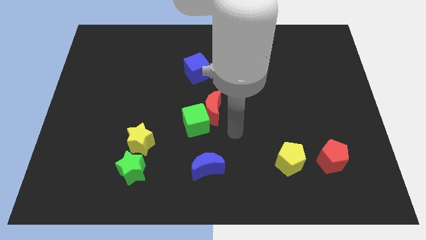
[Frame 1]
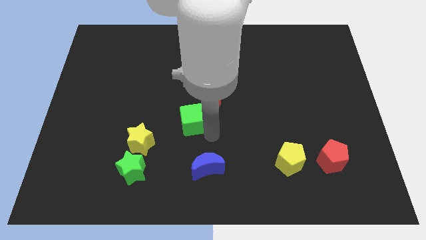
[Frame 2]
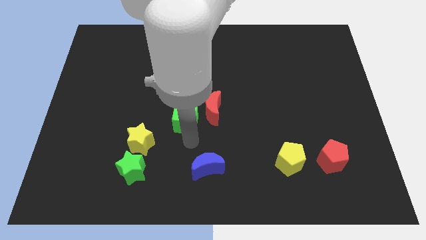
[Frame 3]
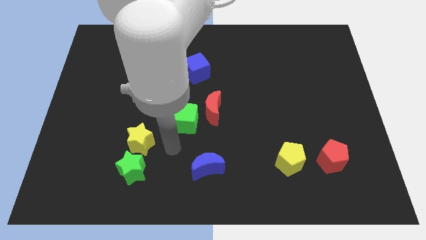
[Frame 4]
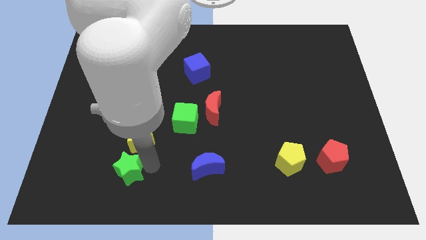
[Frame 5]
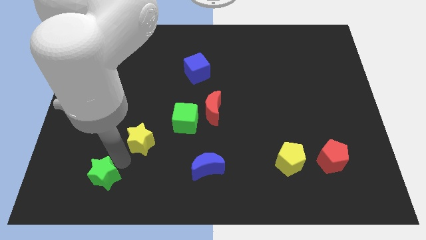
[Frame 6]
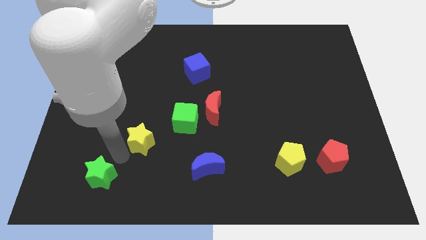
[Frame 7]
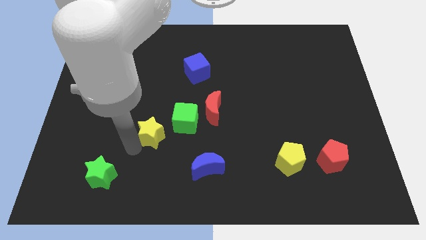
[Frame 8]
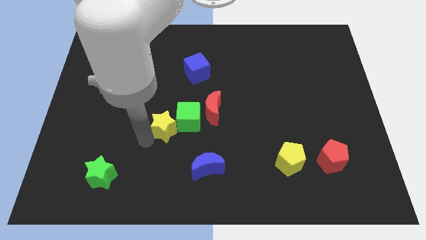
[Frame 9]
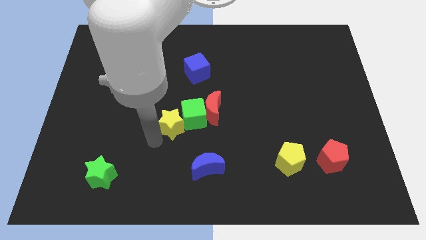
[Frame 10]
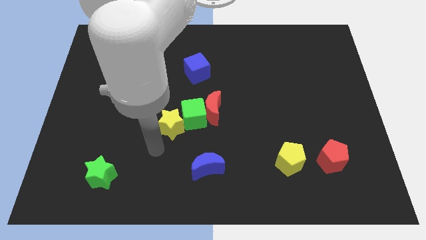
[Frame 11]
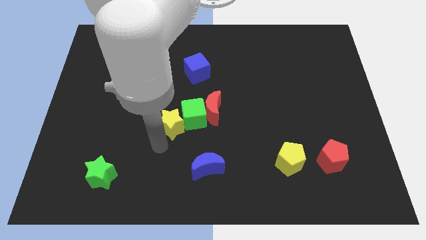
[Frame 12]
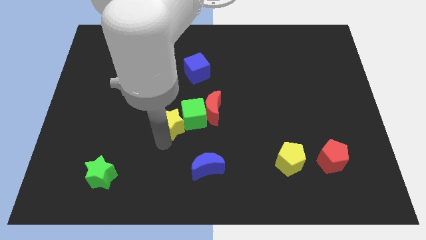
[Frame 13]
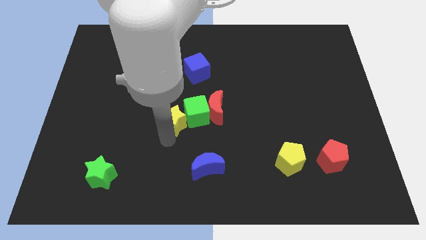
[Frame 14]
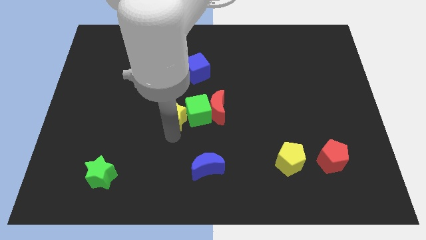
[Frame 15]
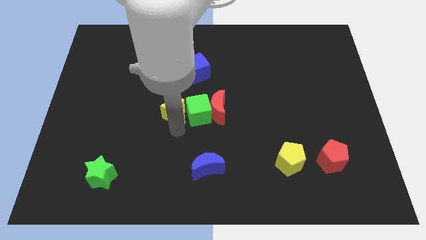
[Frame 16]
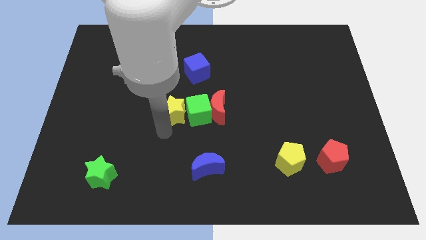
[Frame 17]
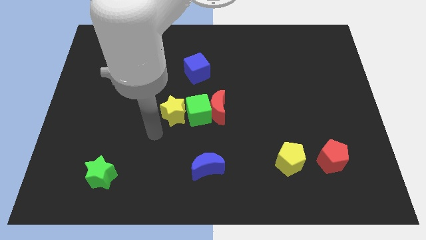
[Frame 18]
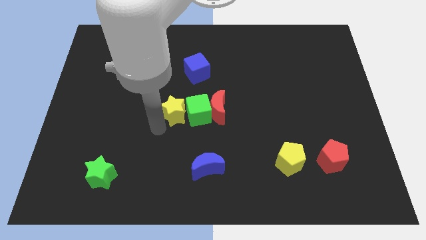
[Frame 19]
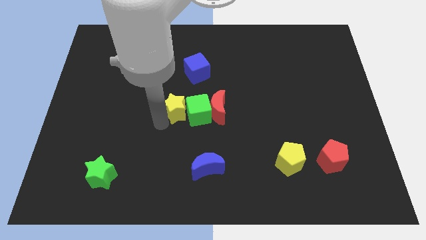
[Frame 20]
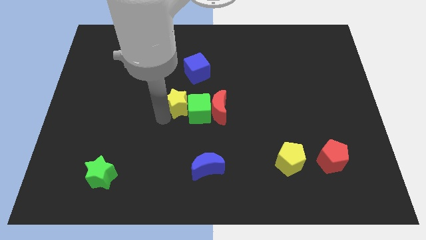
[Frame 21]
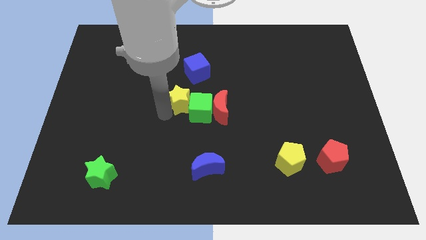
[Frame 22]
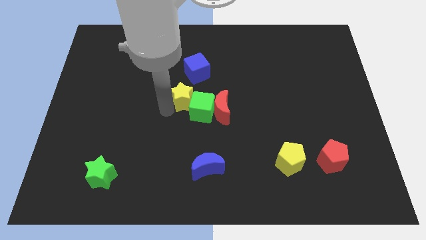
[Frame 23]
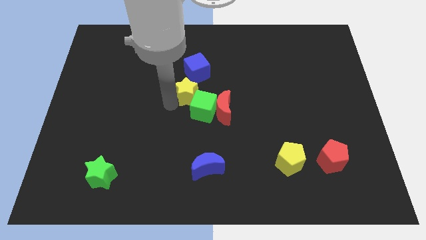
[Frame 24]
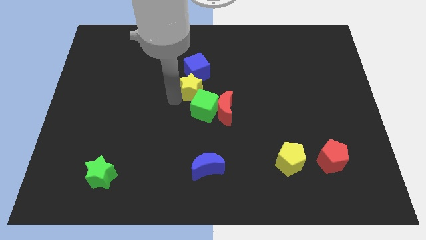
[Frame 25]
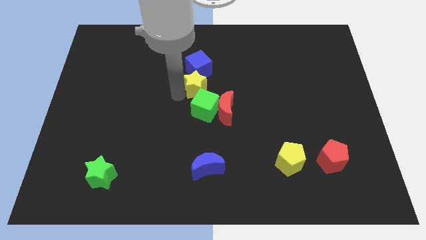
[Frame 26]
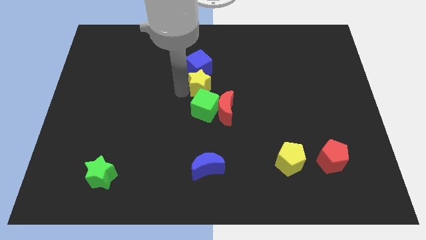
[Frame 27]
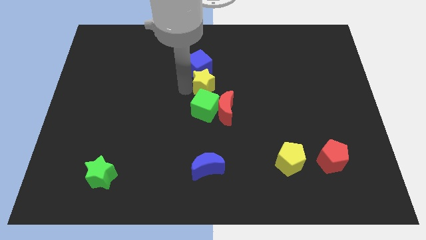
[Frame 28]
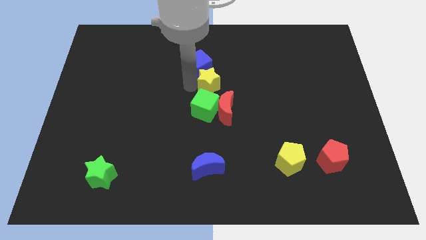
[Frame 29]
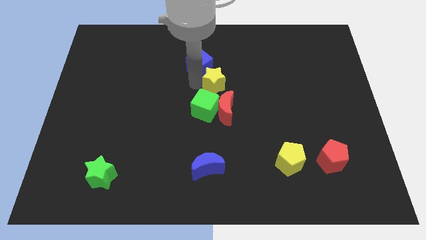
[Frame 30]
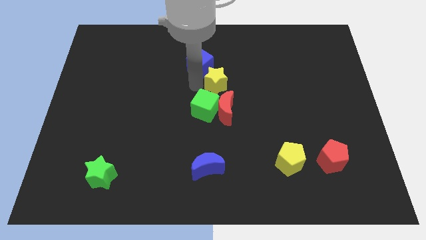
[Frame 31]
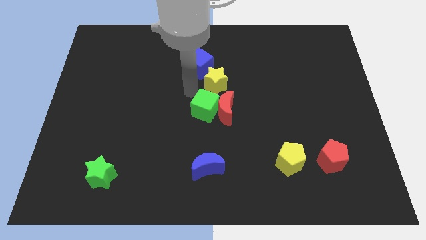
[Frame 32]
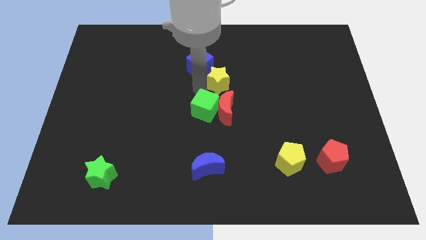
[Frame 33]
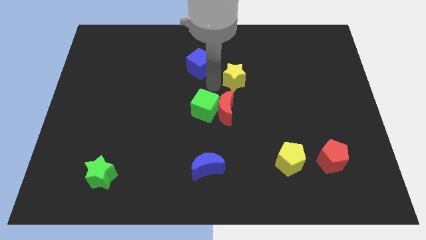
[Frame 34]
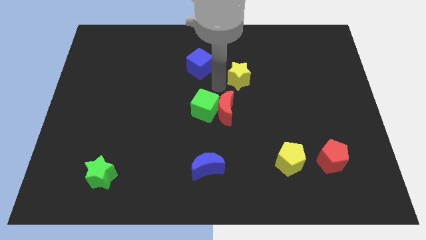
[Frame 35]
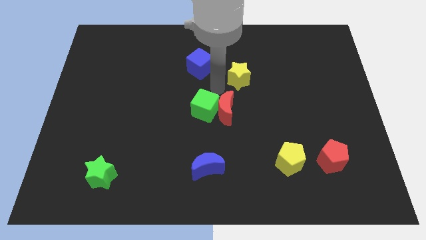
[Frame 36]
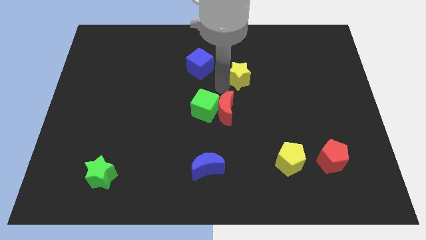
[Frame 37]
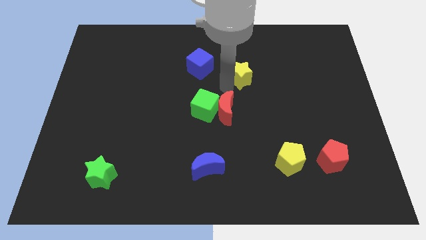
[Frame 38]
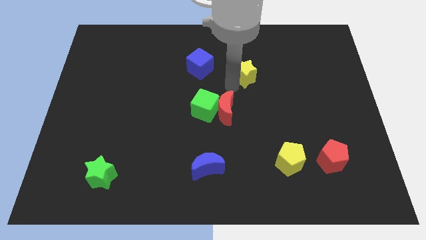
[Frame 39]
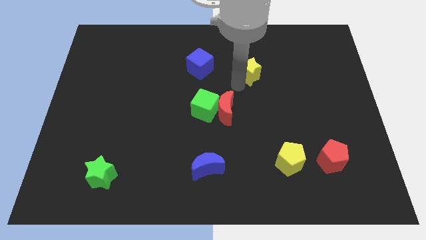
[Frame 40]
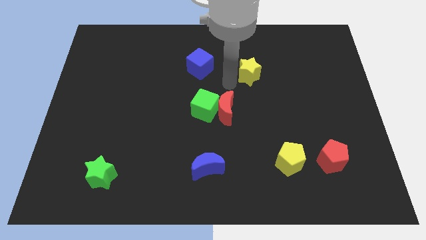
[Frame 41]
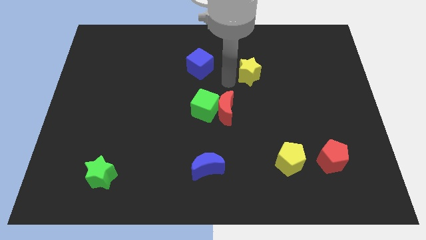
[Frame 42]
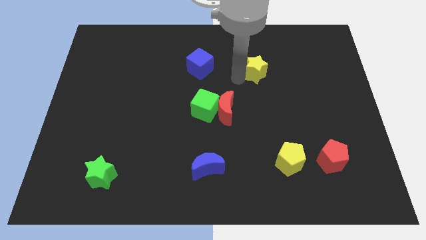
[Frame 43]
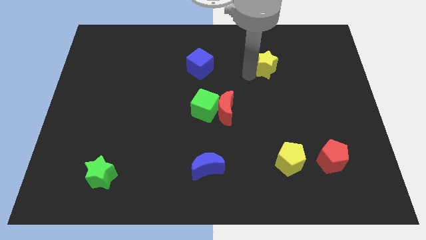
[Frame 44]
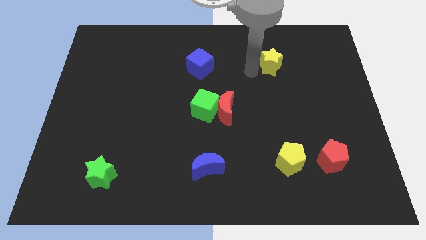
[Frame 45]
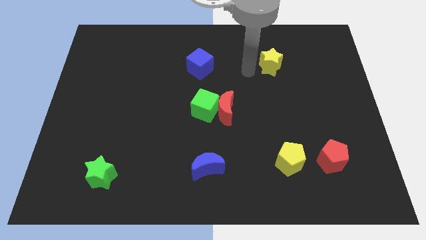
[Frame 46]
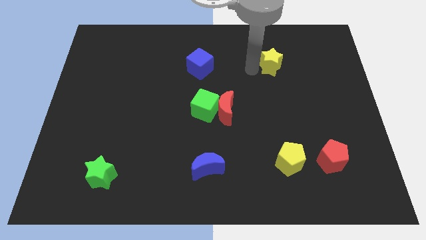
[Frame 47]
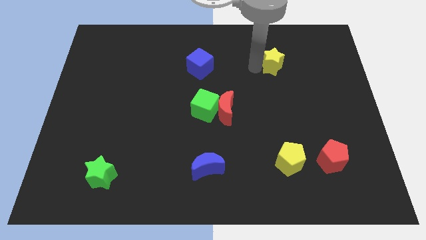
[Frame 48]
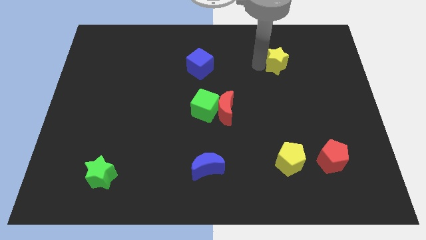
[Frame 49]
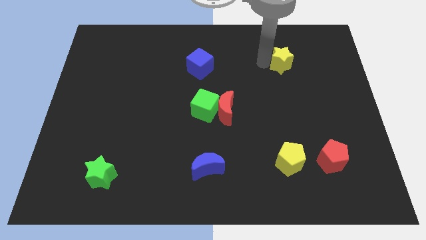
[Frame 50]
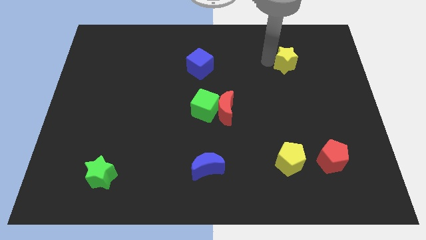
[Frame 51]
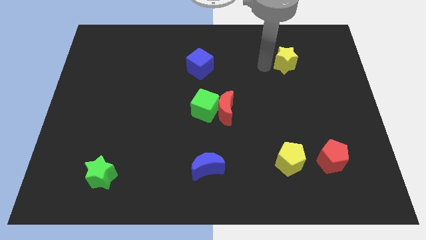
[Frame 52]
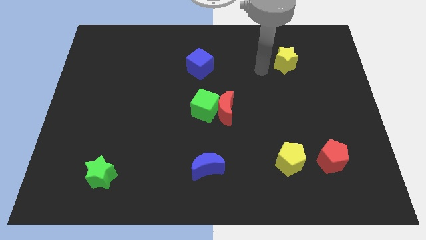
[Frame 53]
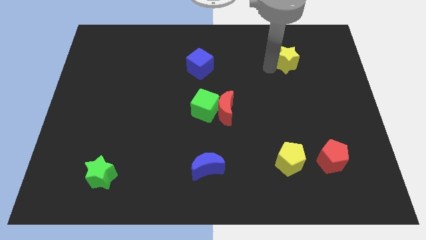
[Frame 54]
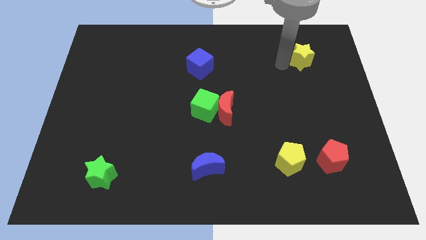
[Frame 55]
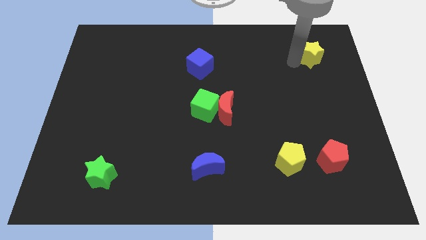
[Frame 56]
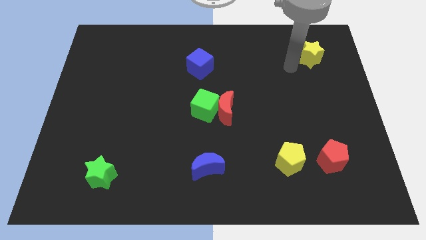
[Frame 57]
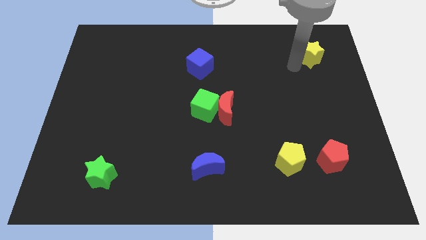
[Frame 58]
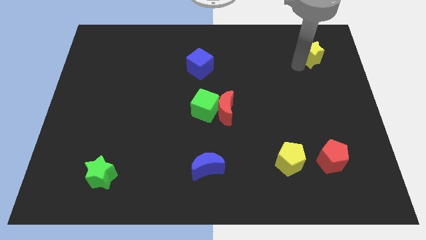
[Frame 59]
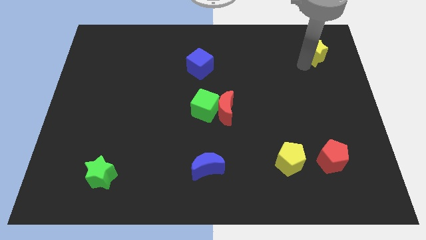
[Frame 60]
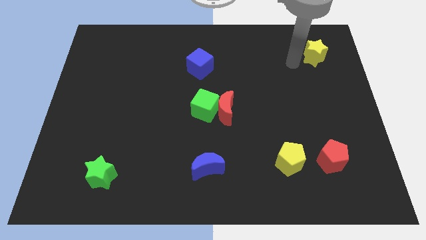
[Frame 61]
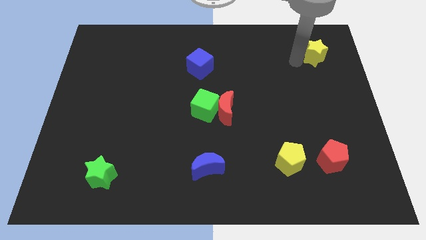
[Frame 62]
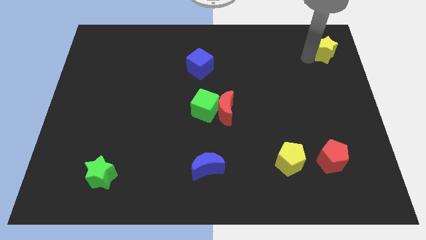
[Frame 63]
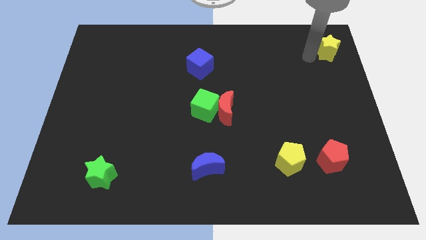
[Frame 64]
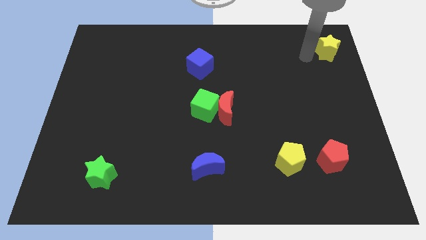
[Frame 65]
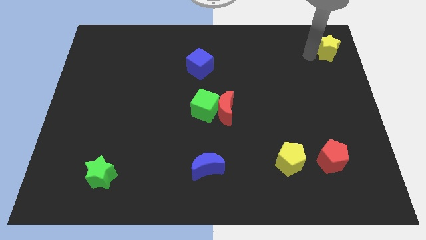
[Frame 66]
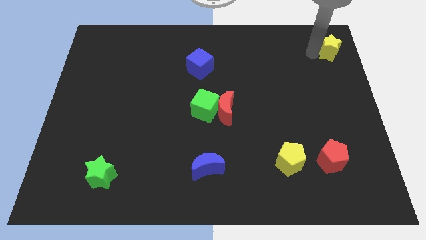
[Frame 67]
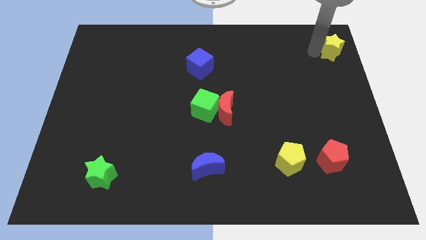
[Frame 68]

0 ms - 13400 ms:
move the yellow star to the top right of the board

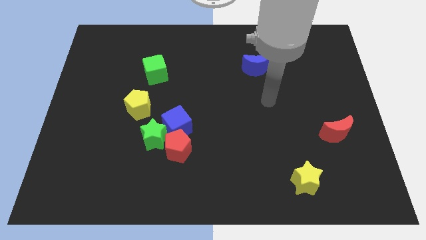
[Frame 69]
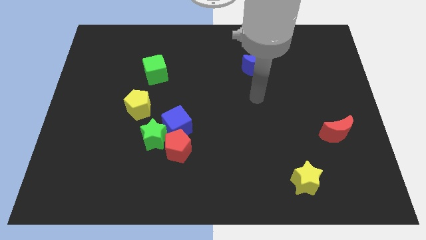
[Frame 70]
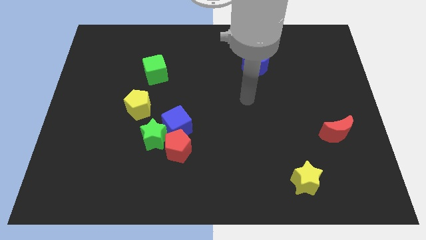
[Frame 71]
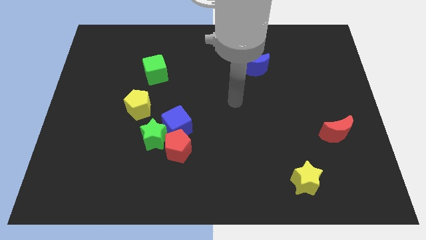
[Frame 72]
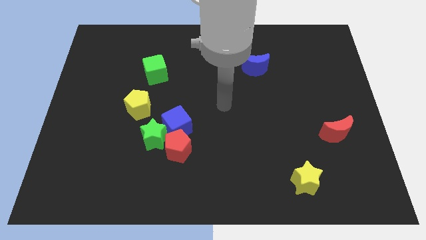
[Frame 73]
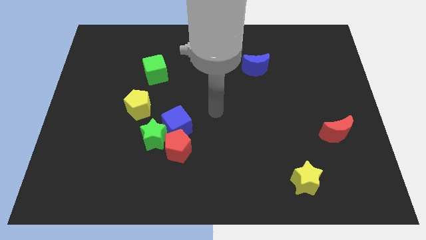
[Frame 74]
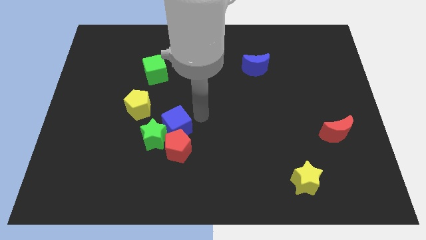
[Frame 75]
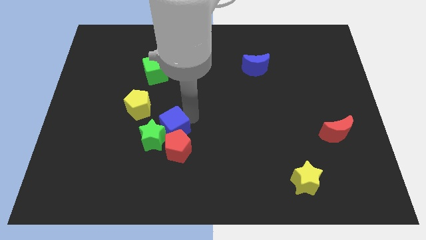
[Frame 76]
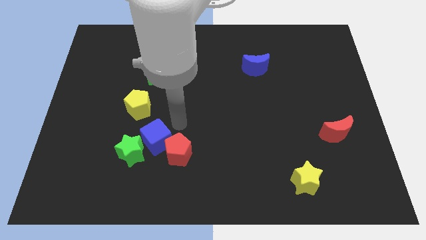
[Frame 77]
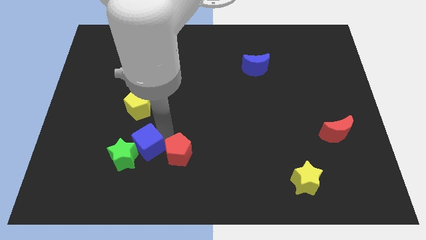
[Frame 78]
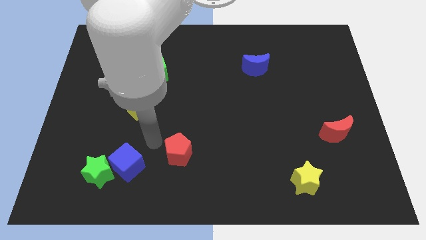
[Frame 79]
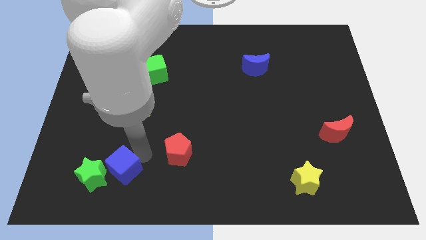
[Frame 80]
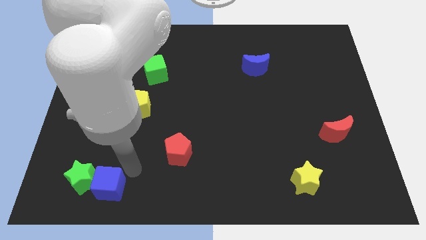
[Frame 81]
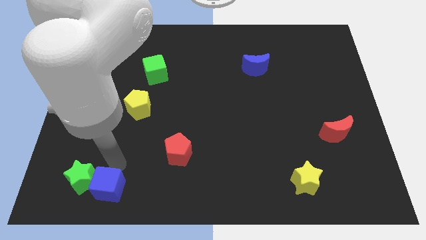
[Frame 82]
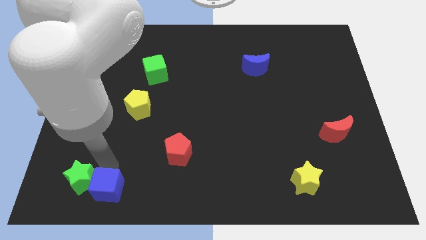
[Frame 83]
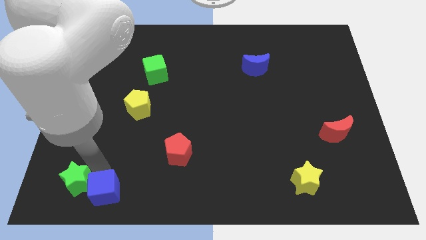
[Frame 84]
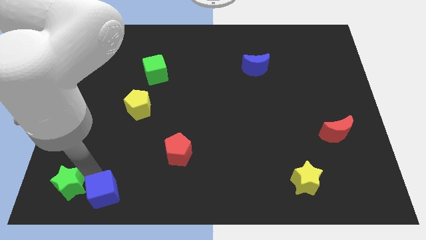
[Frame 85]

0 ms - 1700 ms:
move the green star to the lower left corner
